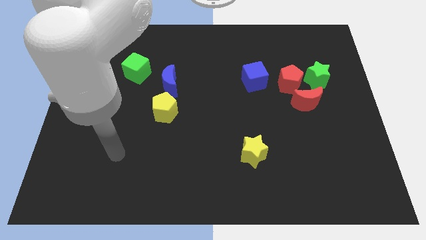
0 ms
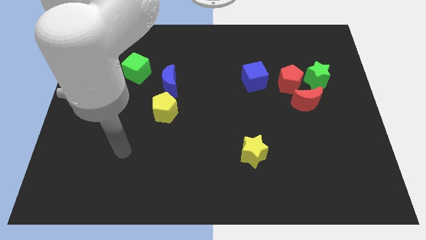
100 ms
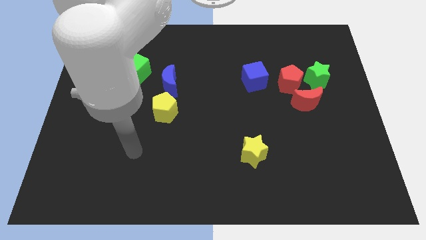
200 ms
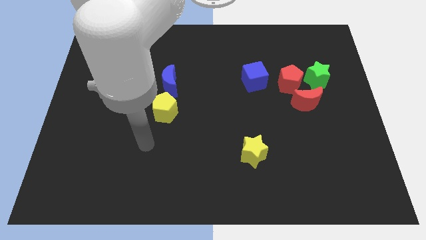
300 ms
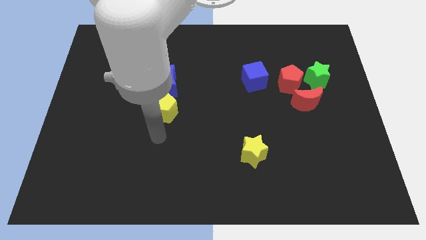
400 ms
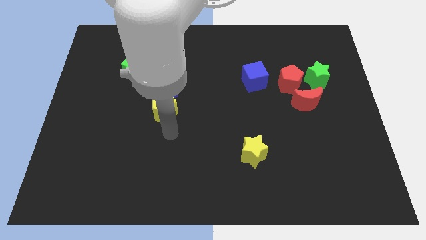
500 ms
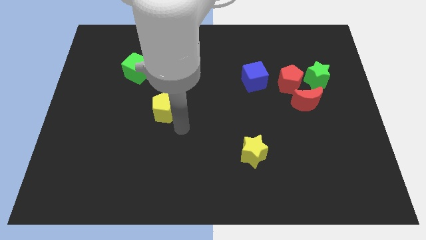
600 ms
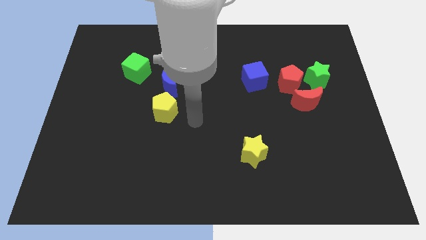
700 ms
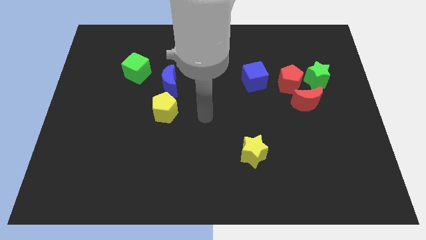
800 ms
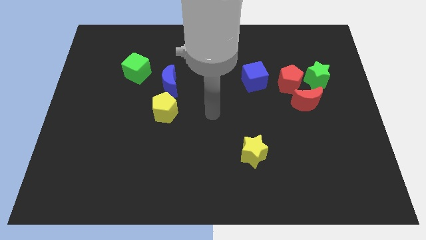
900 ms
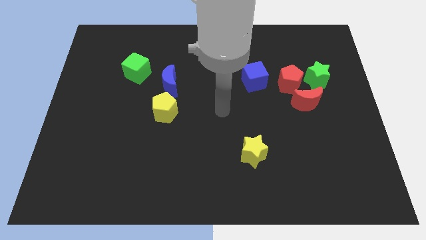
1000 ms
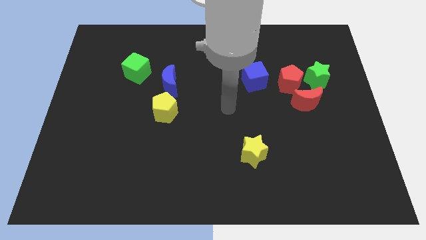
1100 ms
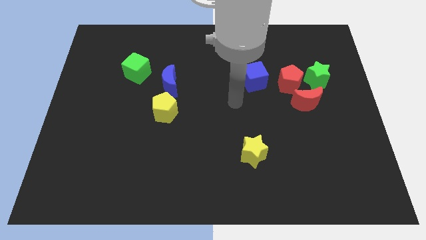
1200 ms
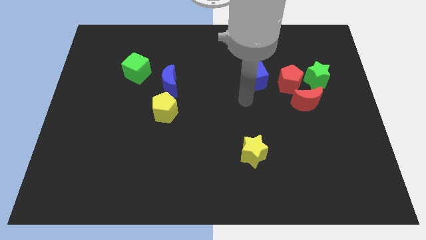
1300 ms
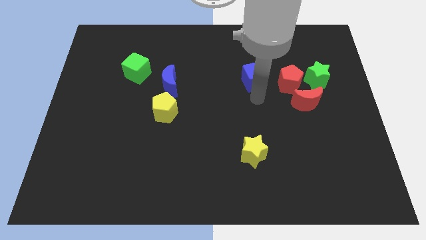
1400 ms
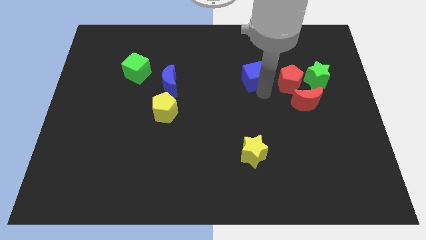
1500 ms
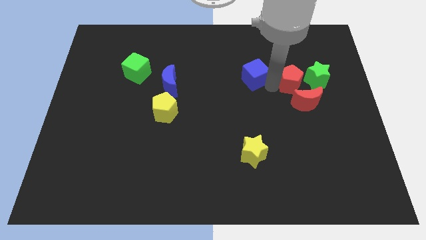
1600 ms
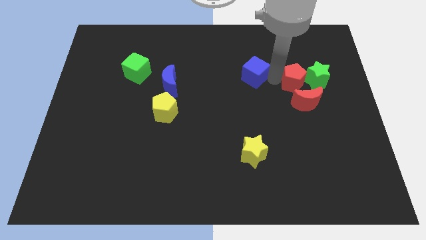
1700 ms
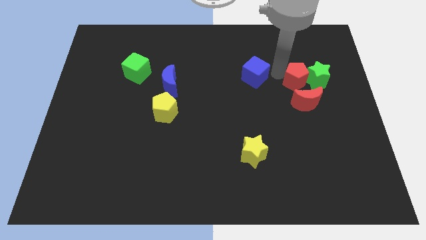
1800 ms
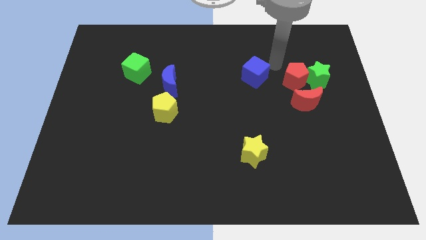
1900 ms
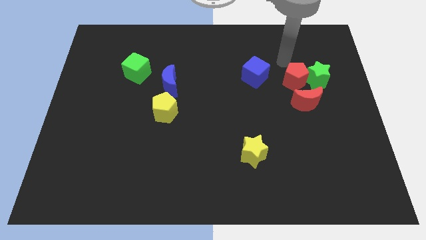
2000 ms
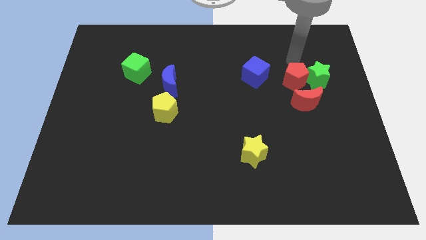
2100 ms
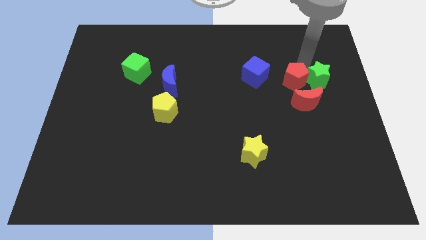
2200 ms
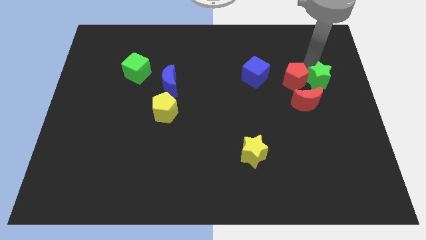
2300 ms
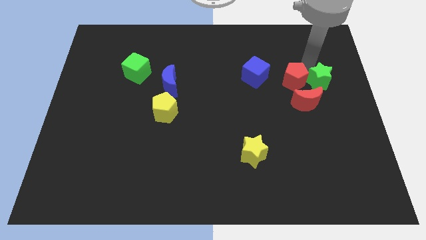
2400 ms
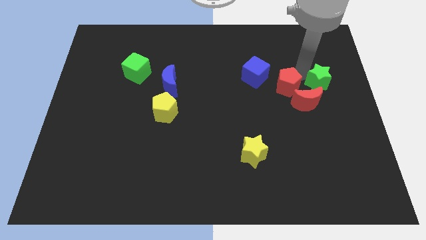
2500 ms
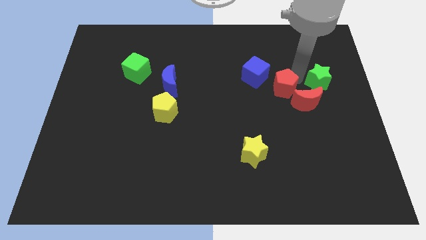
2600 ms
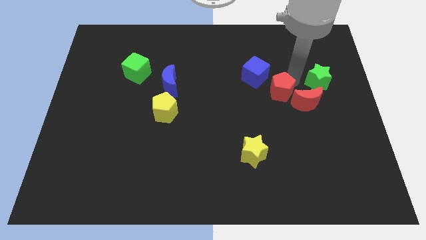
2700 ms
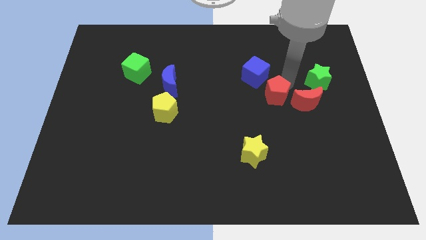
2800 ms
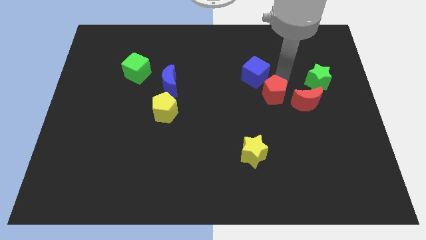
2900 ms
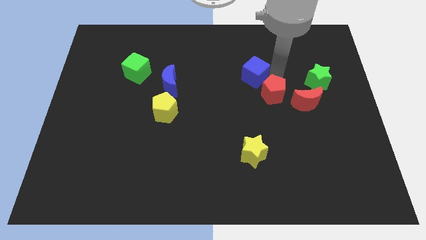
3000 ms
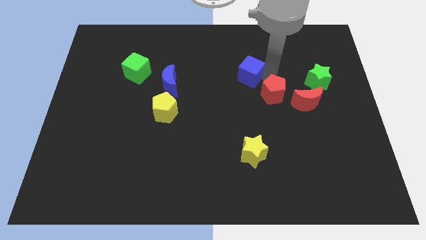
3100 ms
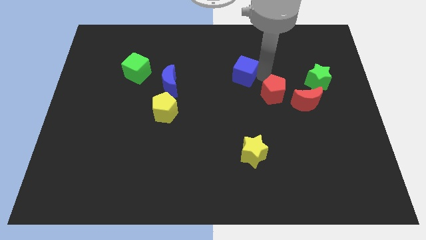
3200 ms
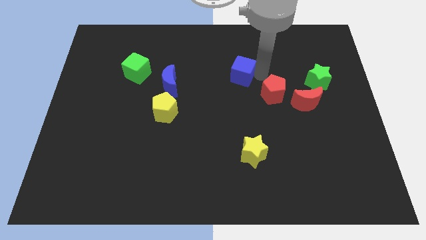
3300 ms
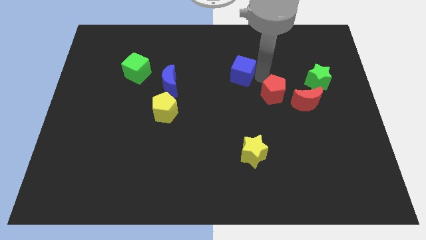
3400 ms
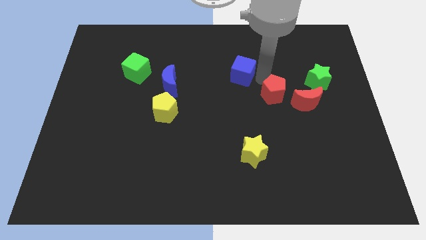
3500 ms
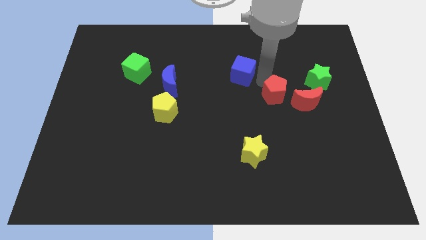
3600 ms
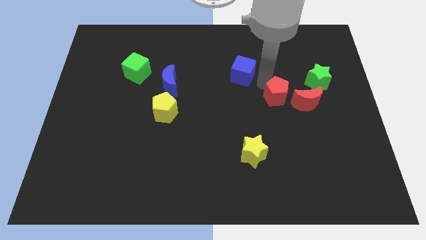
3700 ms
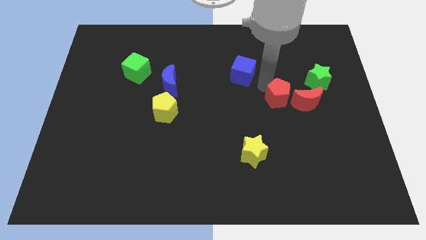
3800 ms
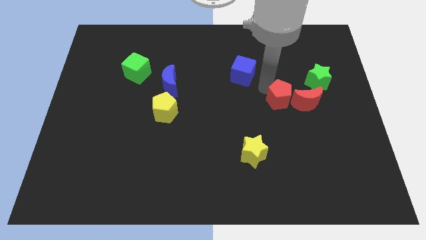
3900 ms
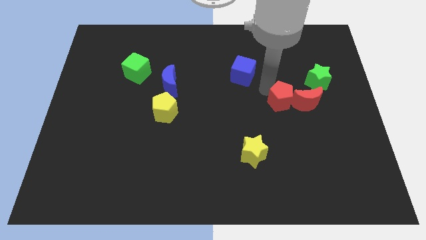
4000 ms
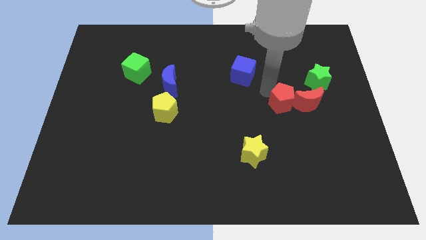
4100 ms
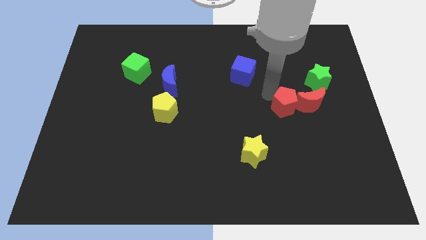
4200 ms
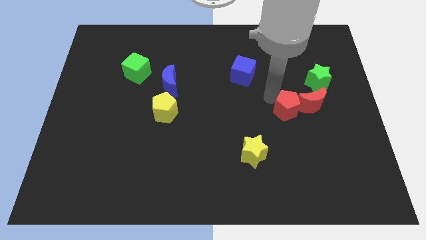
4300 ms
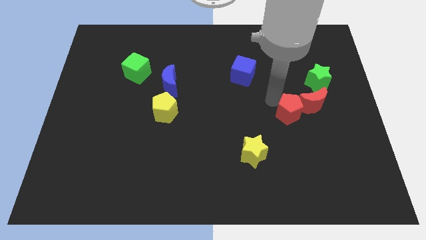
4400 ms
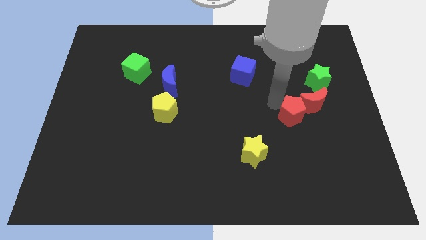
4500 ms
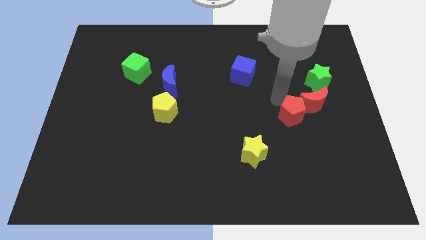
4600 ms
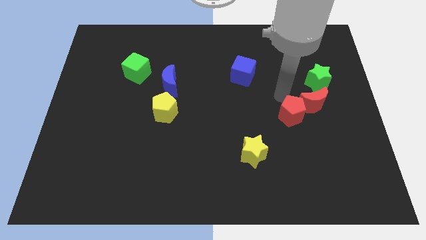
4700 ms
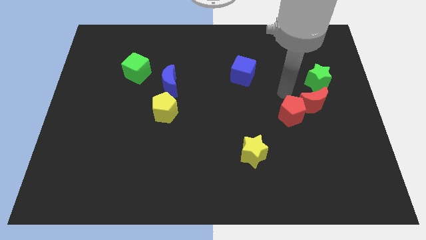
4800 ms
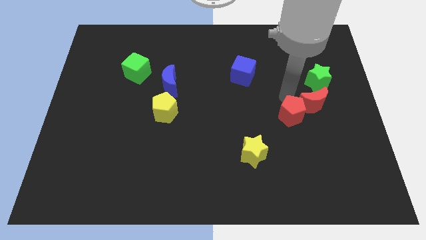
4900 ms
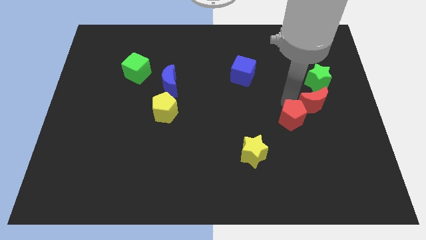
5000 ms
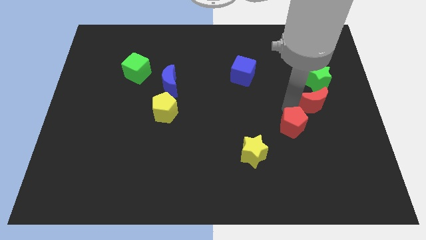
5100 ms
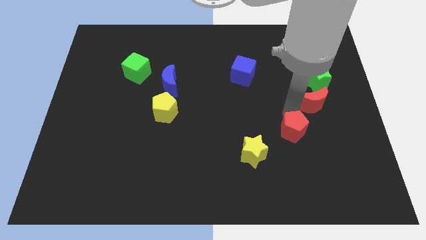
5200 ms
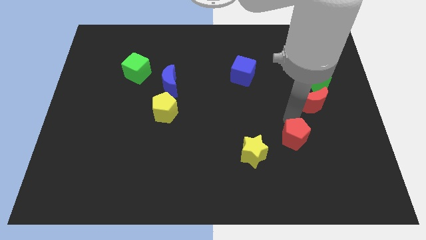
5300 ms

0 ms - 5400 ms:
move the red pentagon to the right of the yellow star

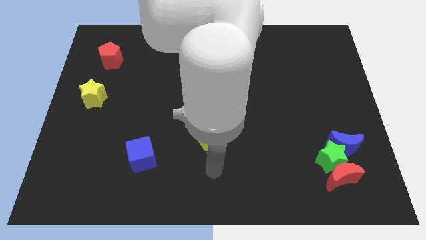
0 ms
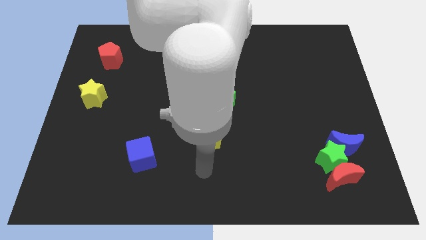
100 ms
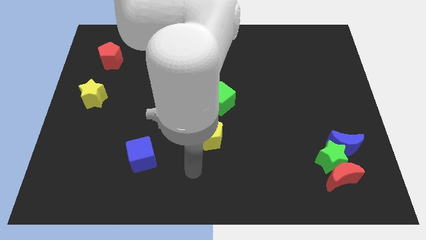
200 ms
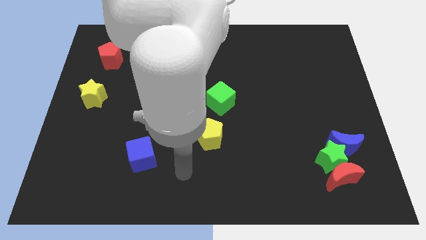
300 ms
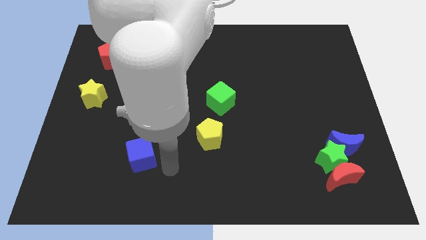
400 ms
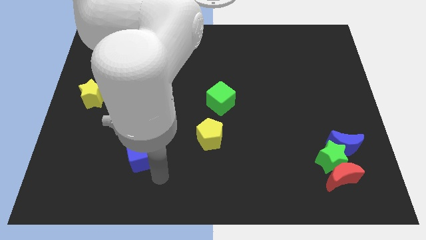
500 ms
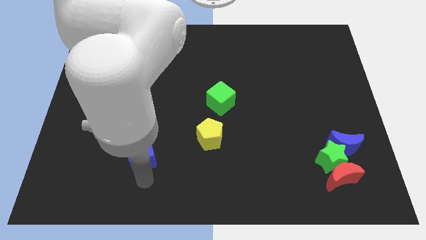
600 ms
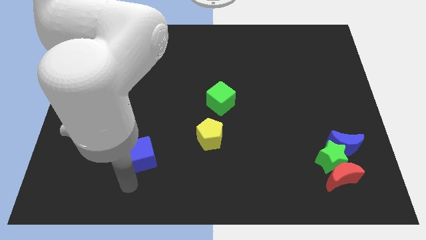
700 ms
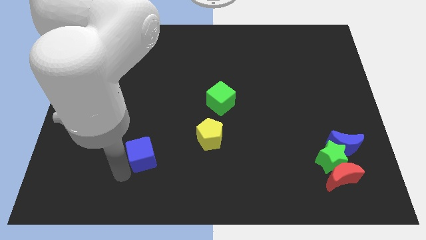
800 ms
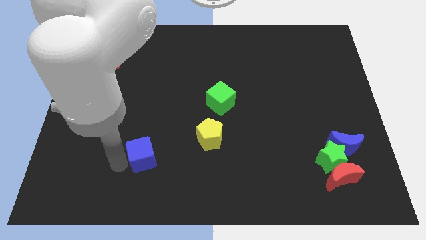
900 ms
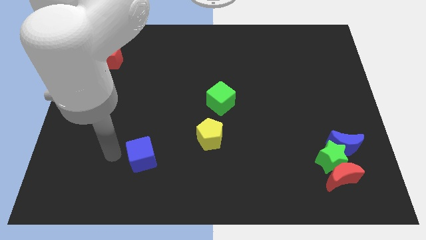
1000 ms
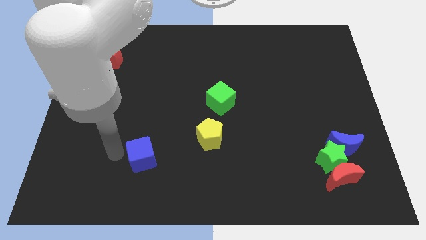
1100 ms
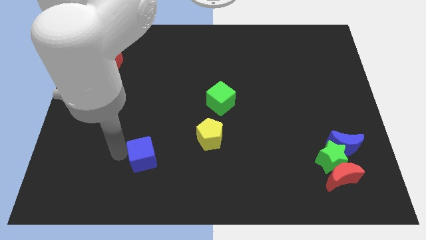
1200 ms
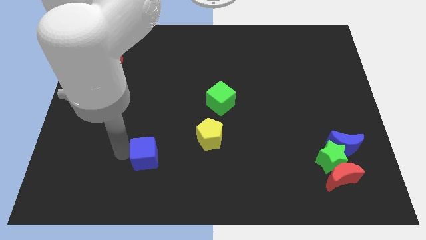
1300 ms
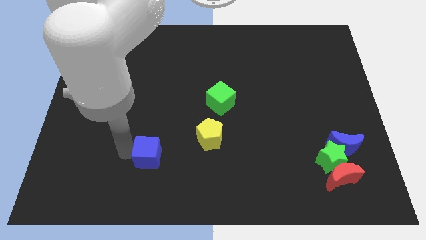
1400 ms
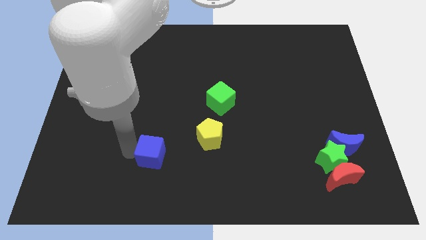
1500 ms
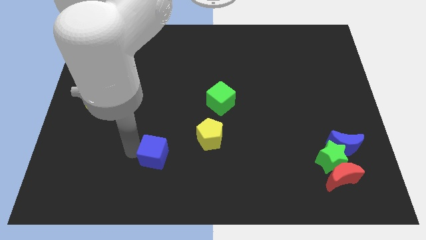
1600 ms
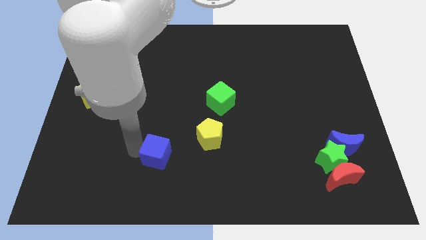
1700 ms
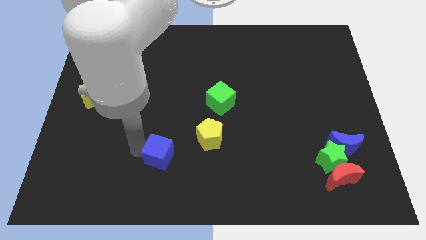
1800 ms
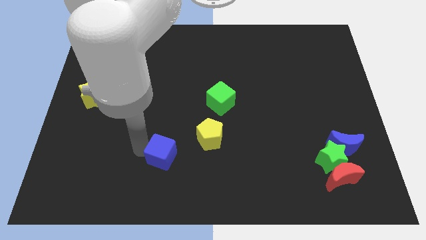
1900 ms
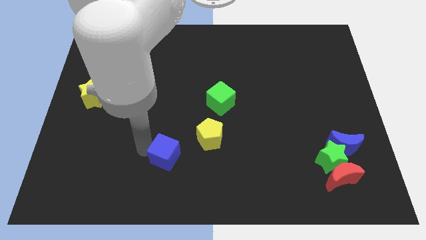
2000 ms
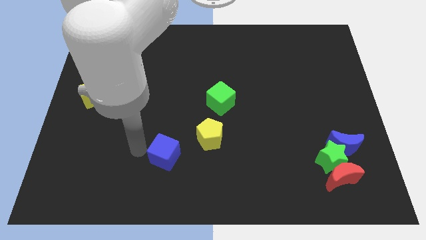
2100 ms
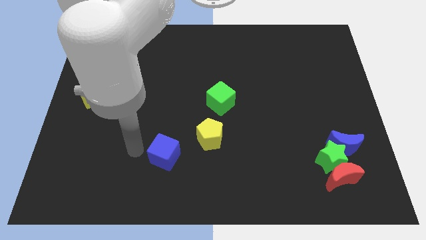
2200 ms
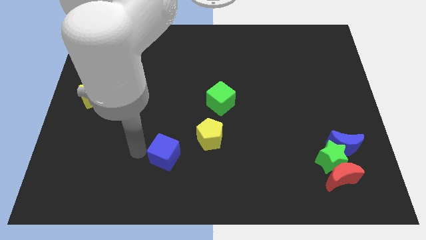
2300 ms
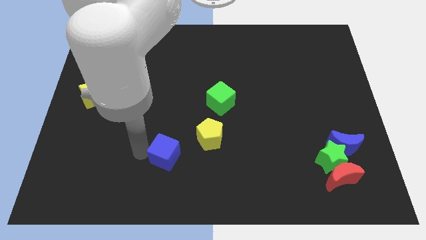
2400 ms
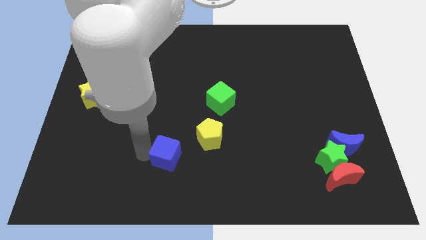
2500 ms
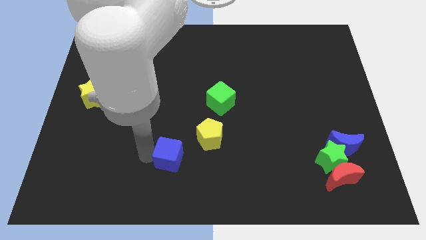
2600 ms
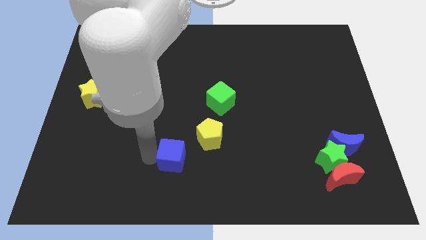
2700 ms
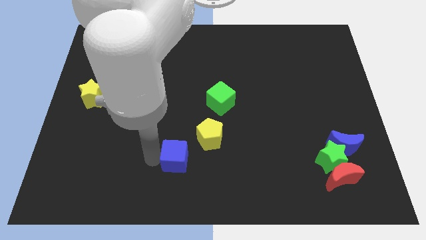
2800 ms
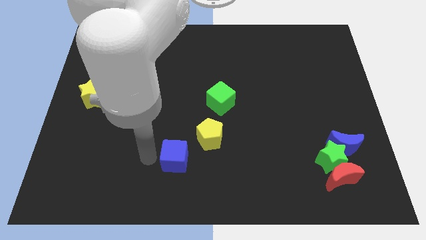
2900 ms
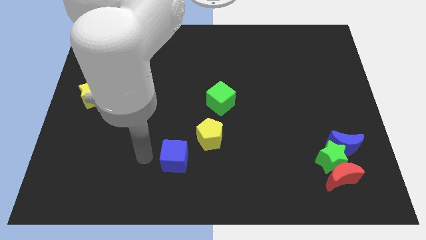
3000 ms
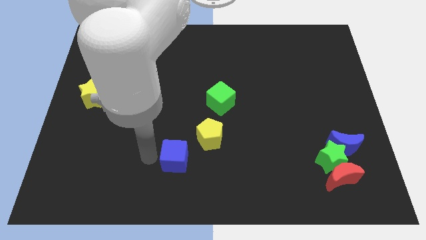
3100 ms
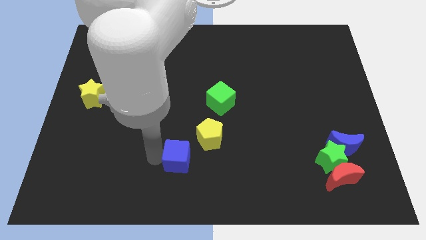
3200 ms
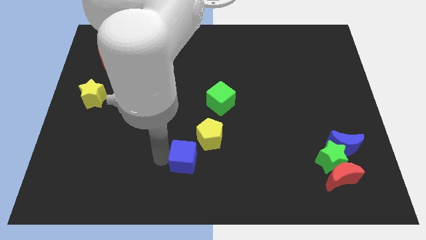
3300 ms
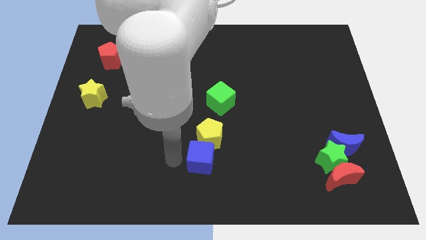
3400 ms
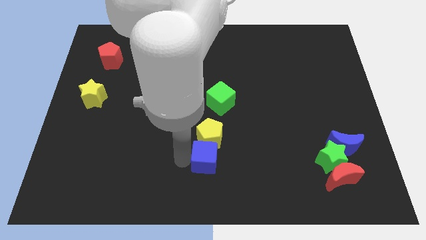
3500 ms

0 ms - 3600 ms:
push the blue cube to the bottom right of the yellow pentagon
